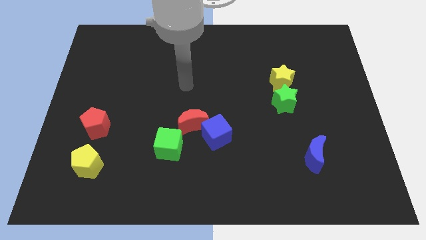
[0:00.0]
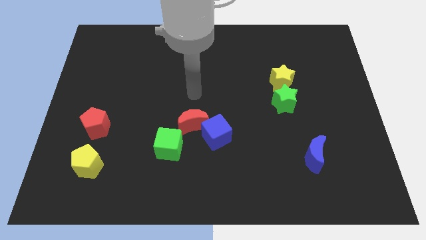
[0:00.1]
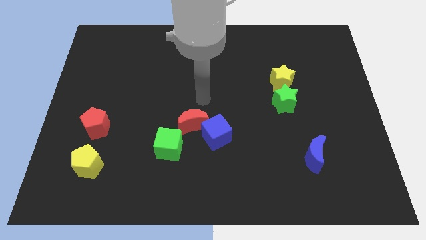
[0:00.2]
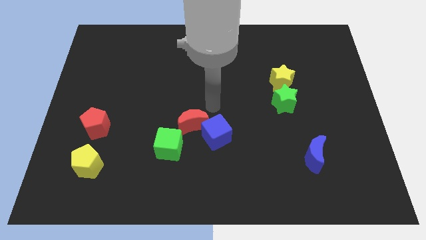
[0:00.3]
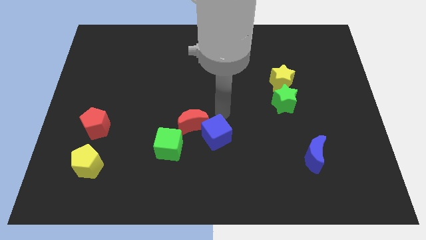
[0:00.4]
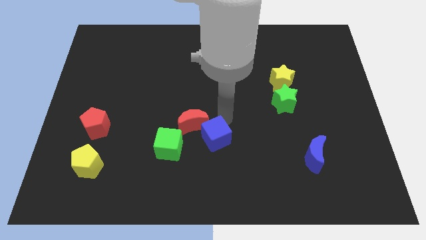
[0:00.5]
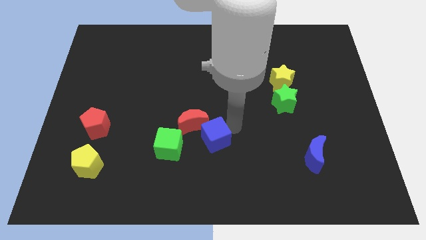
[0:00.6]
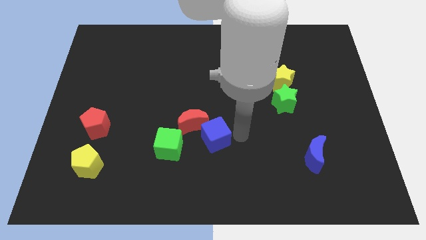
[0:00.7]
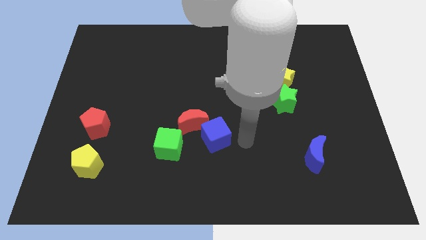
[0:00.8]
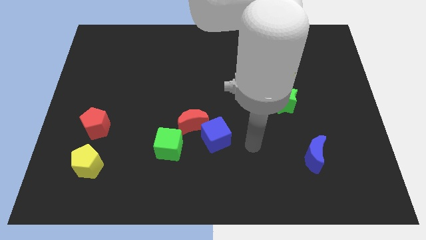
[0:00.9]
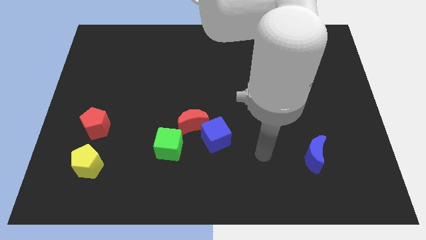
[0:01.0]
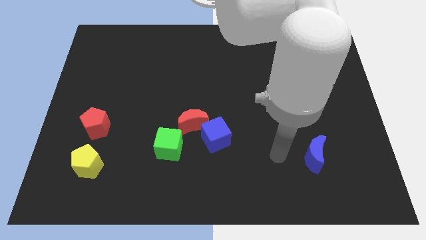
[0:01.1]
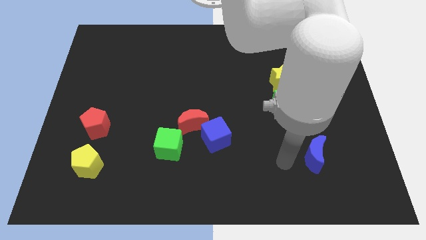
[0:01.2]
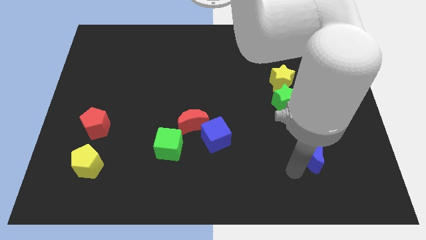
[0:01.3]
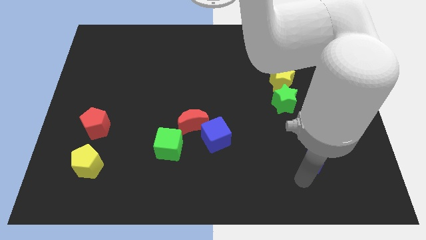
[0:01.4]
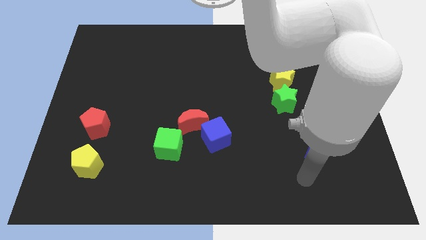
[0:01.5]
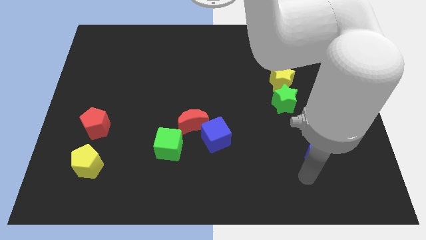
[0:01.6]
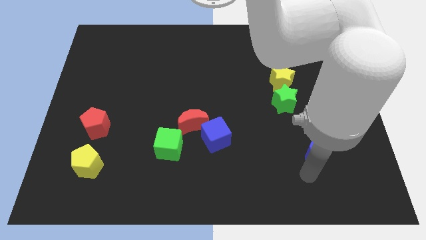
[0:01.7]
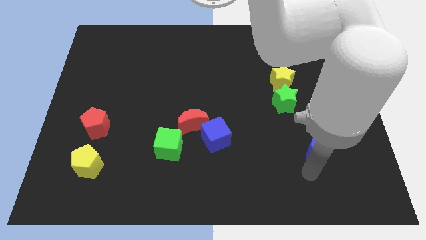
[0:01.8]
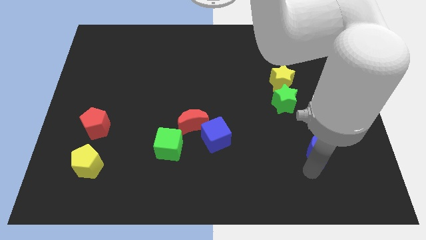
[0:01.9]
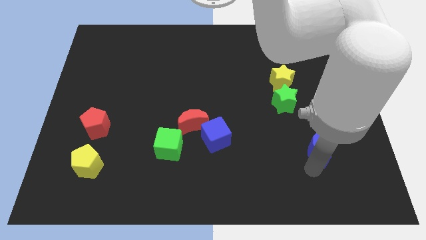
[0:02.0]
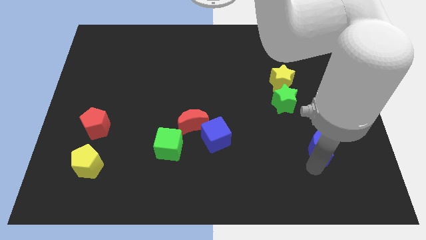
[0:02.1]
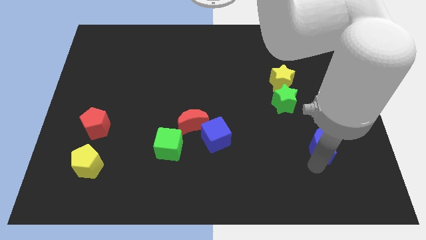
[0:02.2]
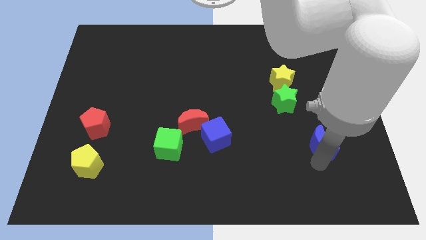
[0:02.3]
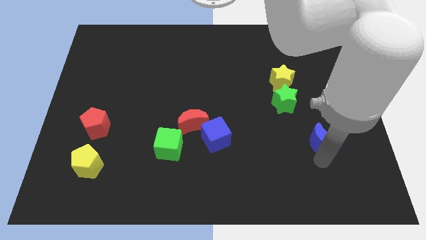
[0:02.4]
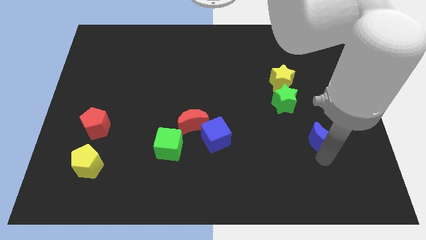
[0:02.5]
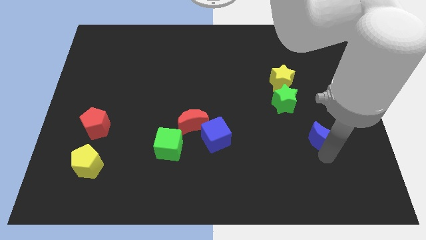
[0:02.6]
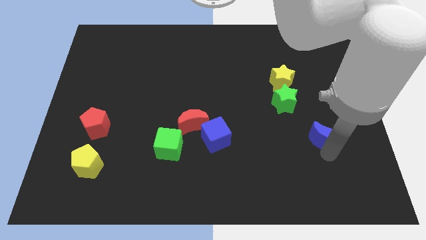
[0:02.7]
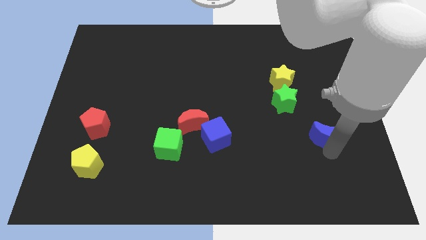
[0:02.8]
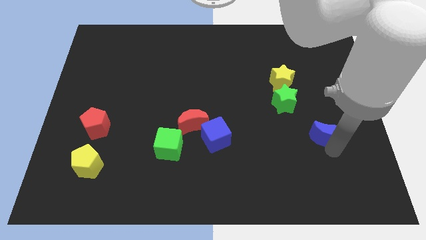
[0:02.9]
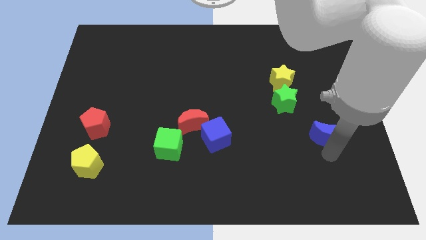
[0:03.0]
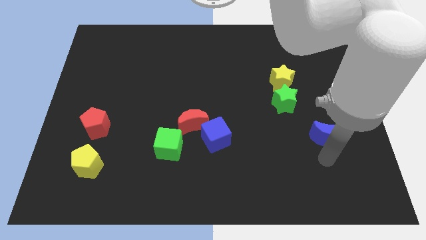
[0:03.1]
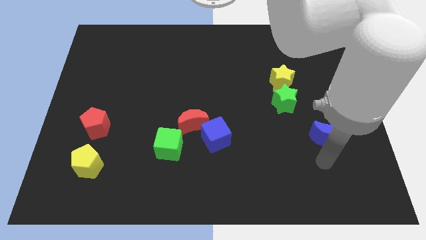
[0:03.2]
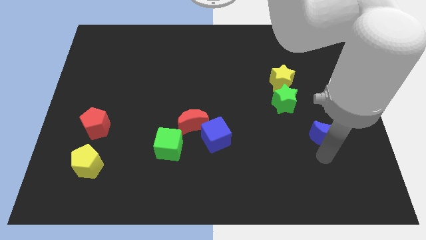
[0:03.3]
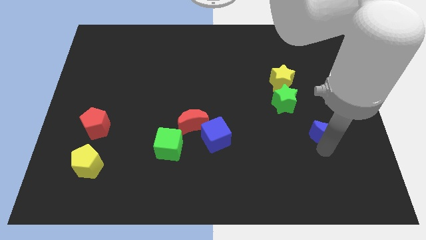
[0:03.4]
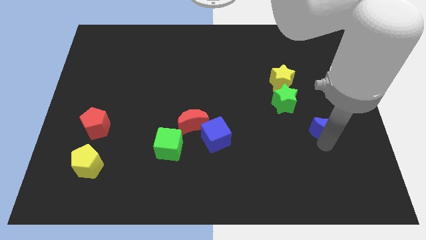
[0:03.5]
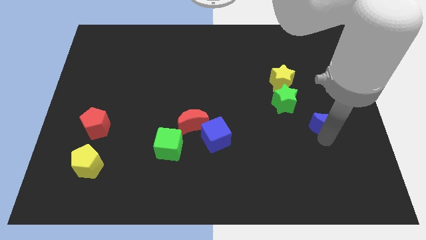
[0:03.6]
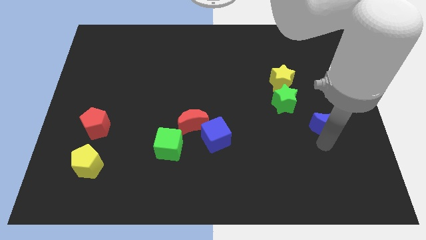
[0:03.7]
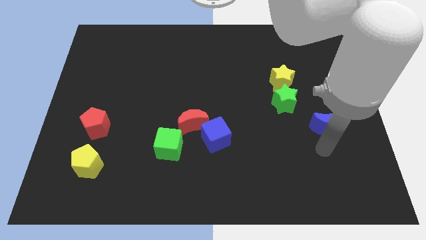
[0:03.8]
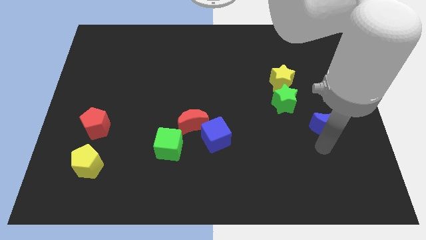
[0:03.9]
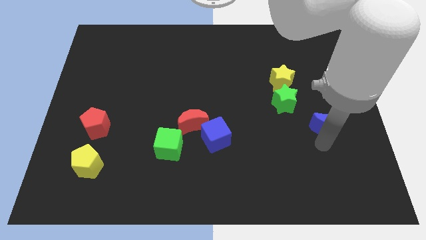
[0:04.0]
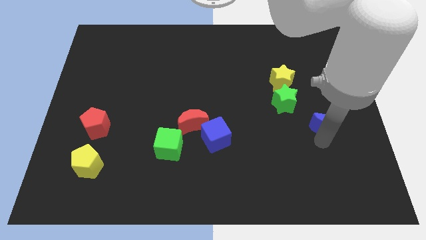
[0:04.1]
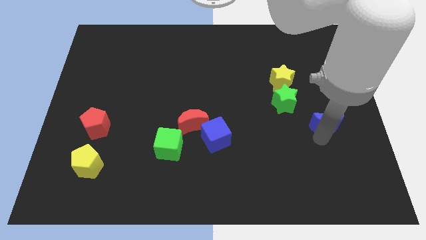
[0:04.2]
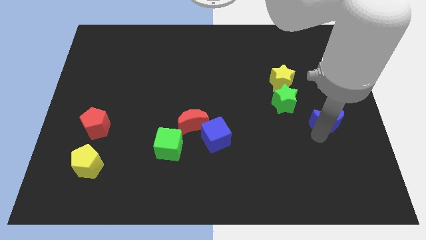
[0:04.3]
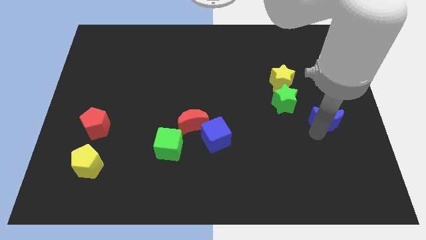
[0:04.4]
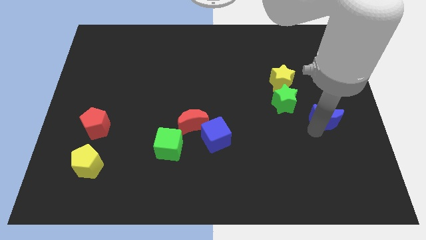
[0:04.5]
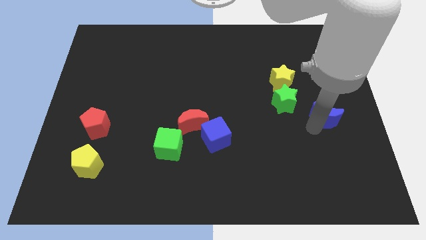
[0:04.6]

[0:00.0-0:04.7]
put the blue moon just right of the green star

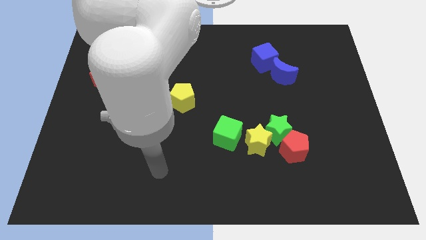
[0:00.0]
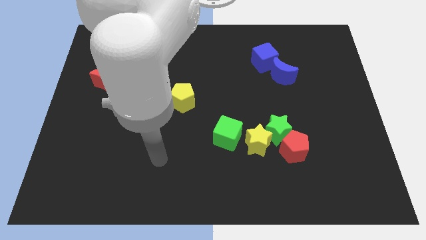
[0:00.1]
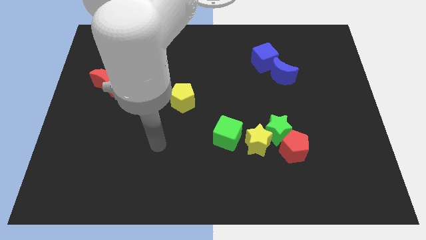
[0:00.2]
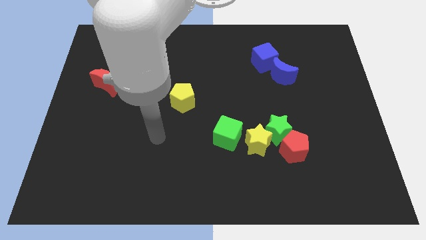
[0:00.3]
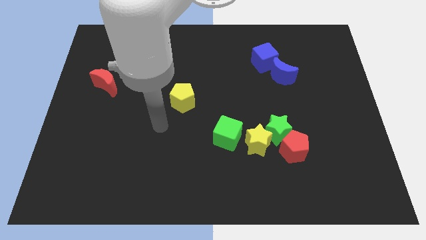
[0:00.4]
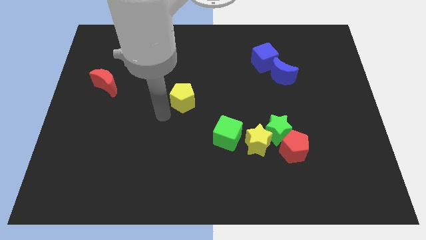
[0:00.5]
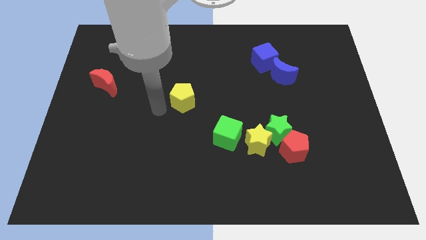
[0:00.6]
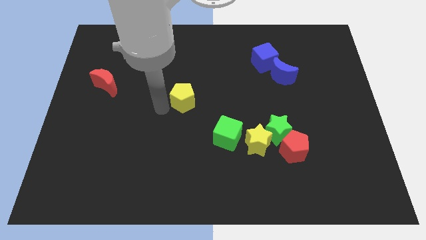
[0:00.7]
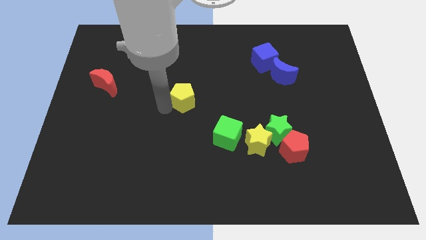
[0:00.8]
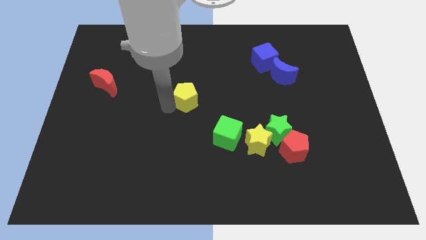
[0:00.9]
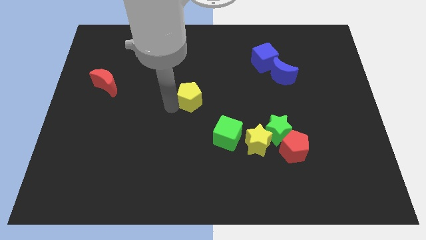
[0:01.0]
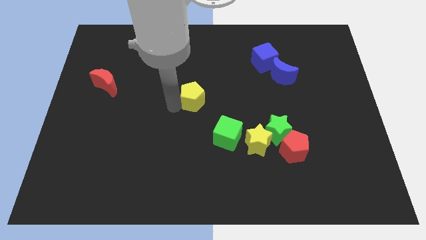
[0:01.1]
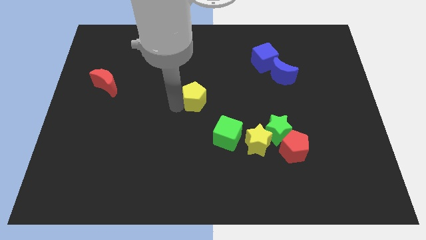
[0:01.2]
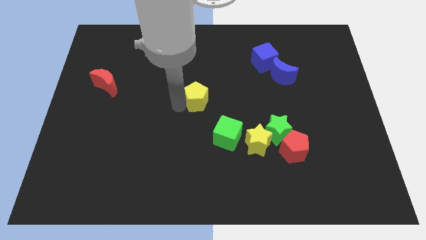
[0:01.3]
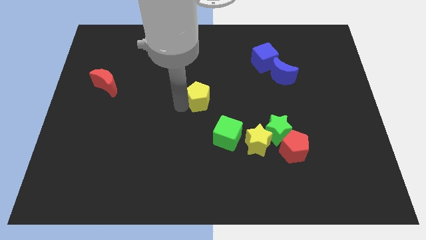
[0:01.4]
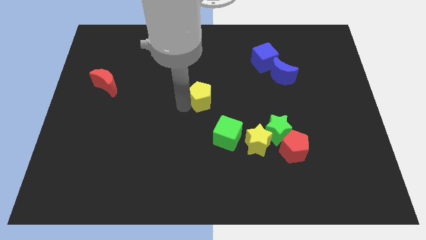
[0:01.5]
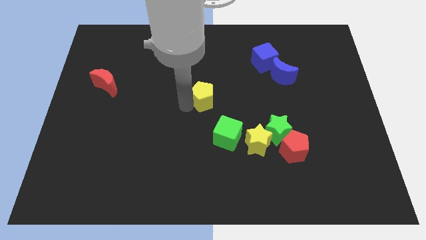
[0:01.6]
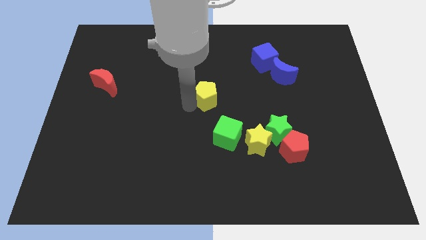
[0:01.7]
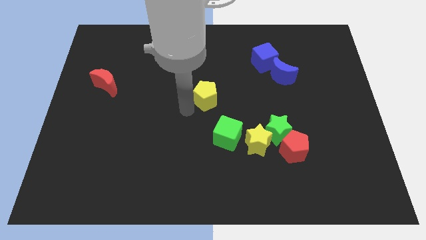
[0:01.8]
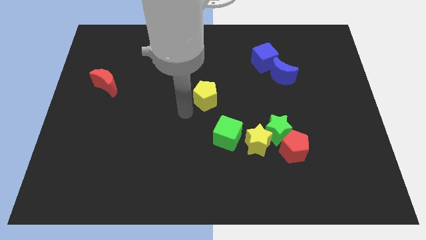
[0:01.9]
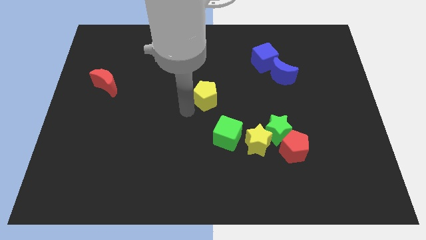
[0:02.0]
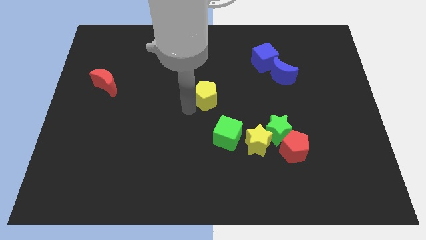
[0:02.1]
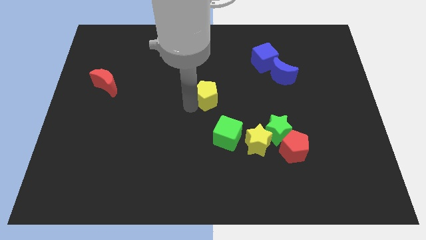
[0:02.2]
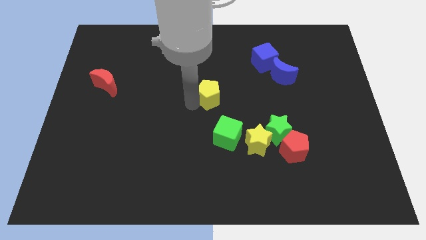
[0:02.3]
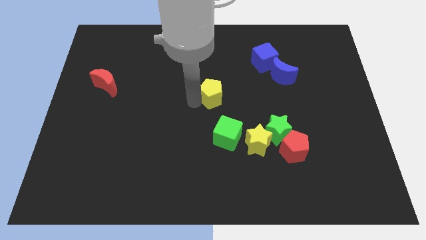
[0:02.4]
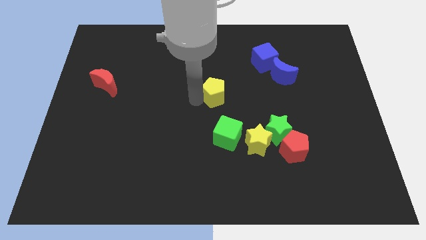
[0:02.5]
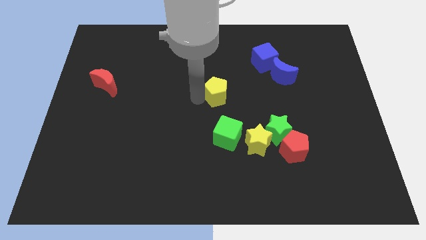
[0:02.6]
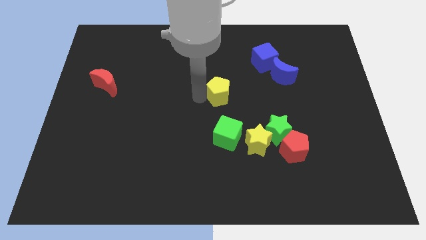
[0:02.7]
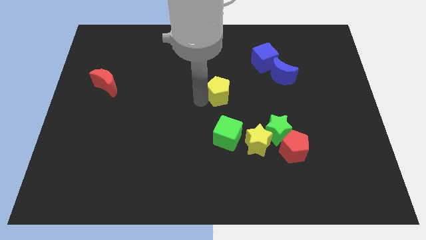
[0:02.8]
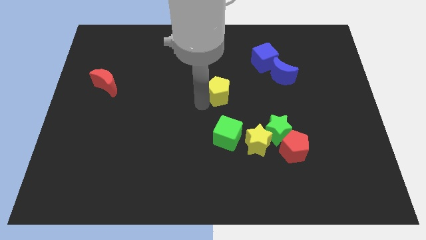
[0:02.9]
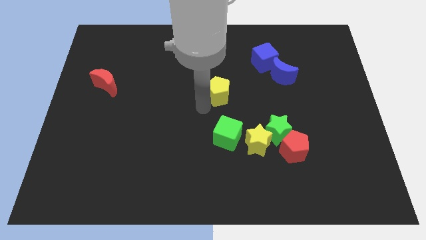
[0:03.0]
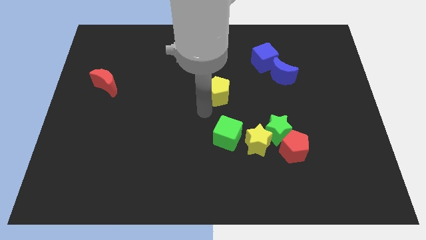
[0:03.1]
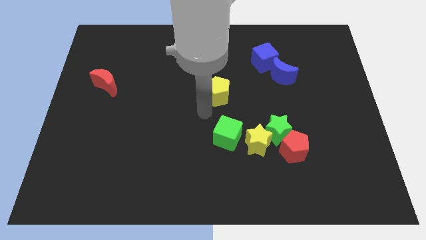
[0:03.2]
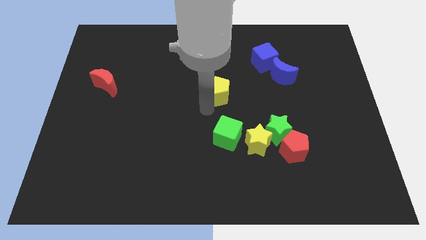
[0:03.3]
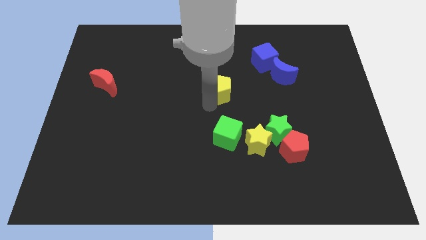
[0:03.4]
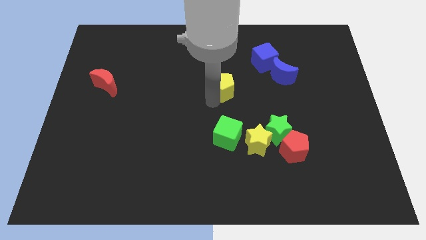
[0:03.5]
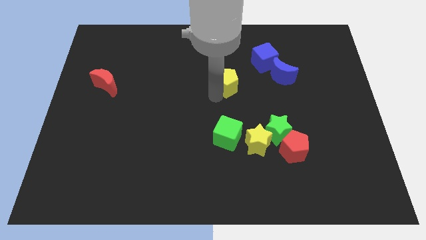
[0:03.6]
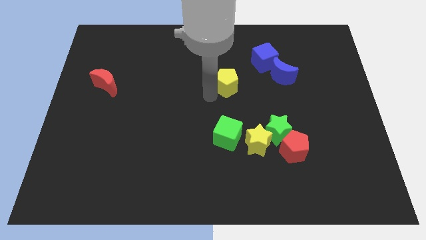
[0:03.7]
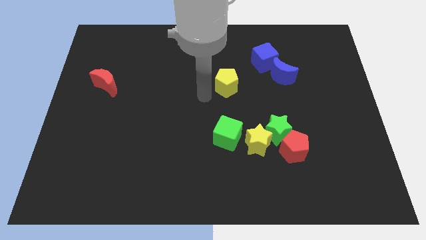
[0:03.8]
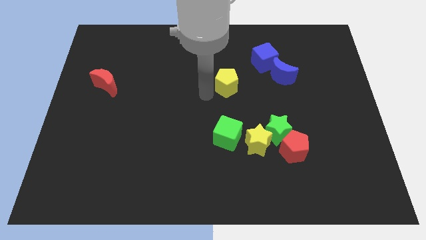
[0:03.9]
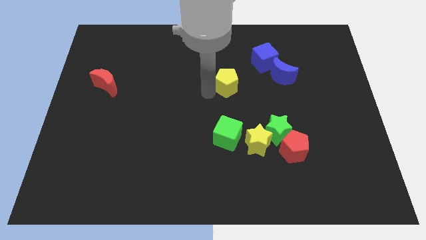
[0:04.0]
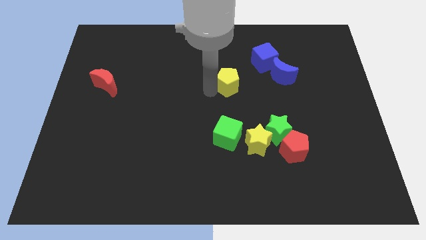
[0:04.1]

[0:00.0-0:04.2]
push the yellow pentagon to the bottom left side of the blue cube
